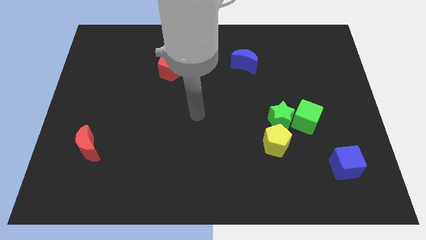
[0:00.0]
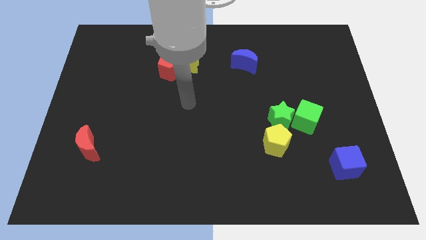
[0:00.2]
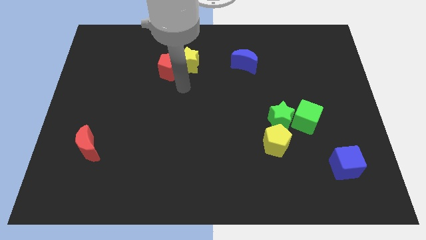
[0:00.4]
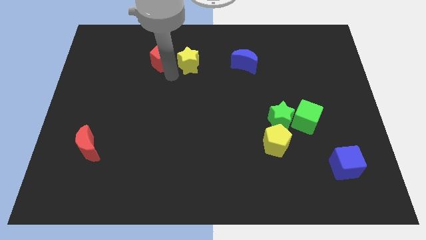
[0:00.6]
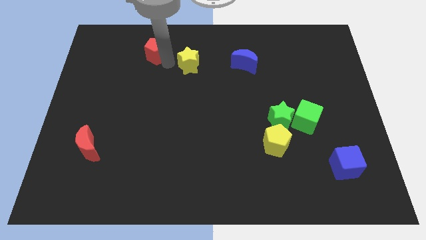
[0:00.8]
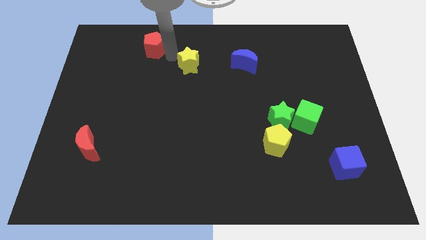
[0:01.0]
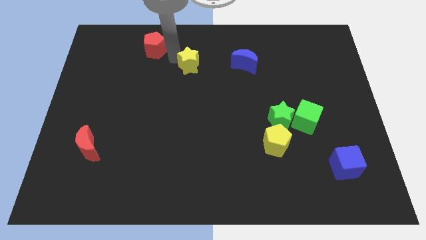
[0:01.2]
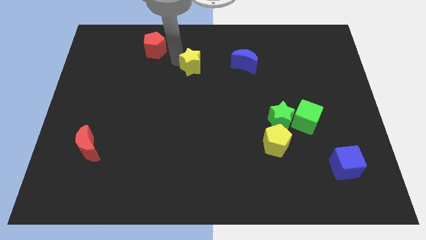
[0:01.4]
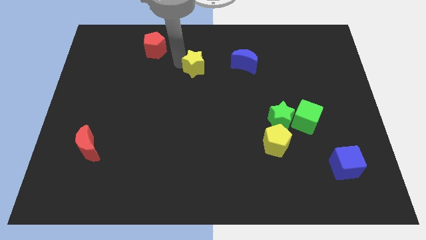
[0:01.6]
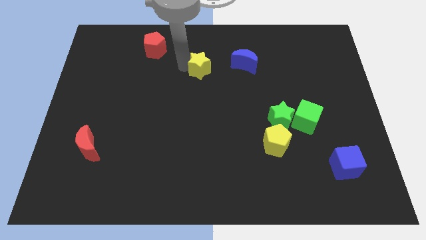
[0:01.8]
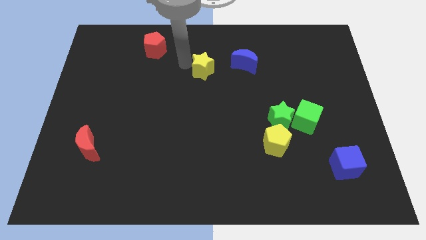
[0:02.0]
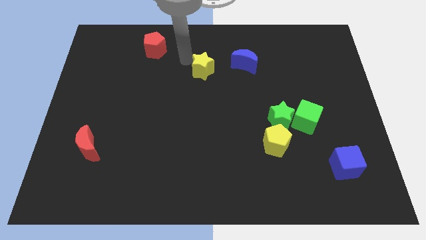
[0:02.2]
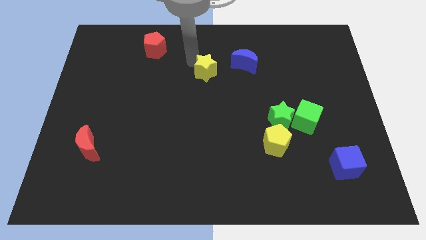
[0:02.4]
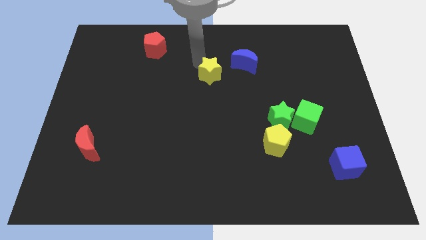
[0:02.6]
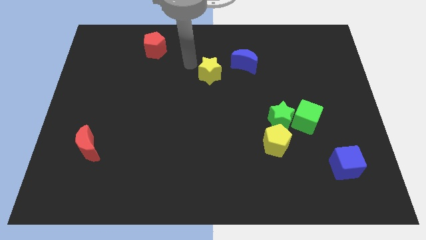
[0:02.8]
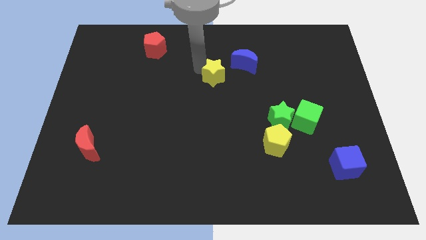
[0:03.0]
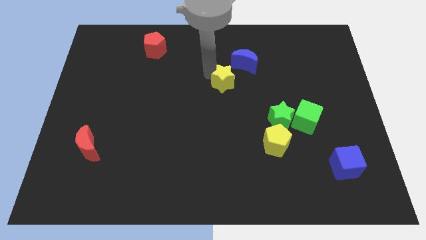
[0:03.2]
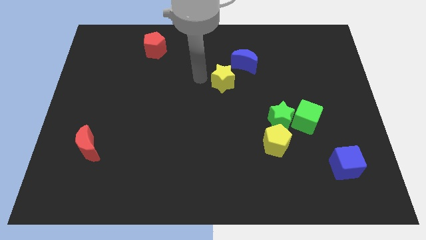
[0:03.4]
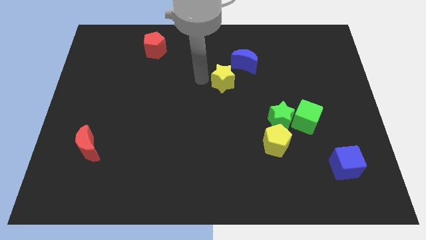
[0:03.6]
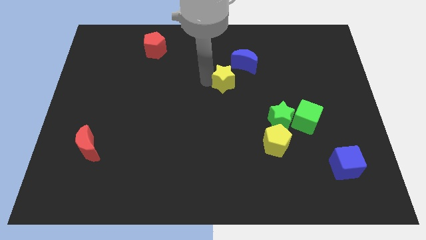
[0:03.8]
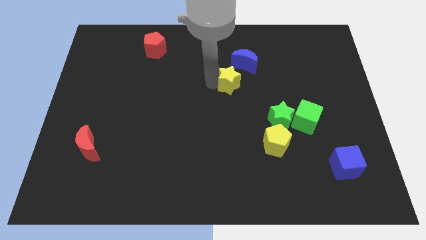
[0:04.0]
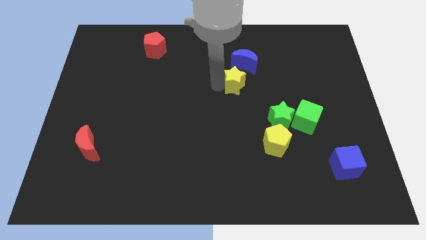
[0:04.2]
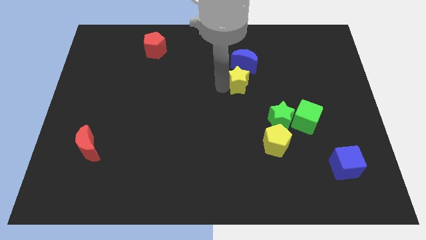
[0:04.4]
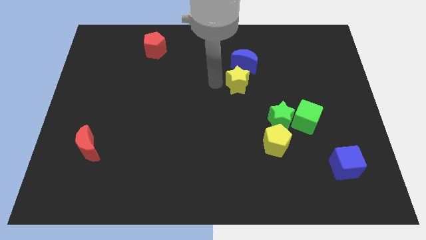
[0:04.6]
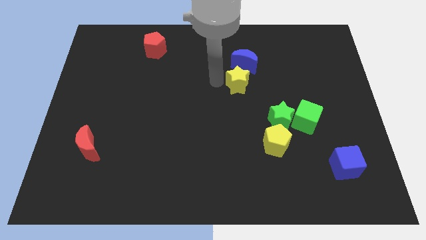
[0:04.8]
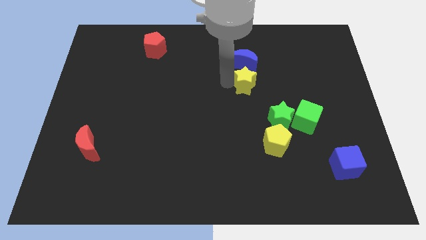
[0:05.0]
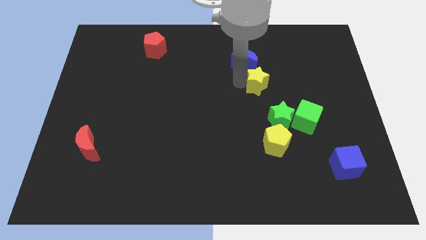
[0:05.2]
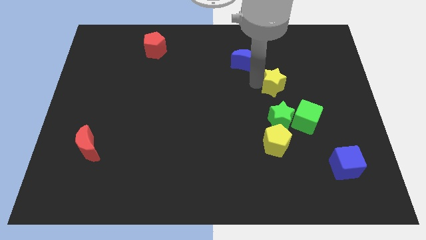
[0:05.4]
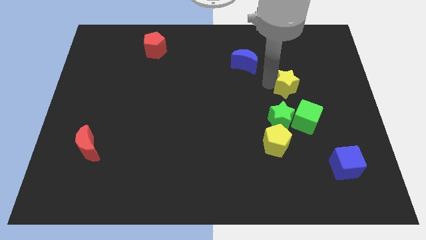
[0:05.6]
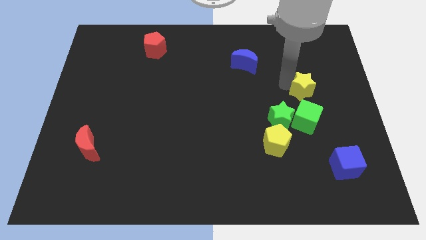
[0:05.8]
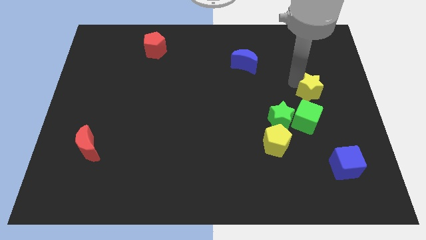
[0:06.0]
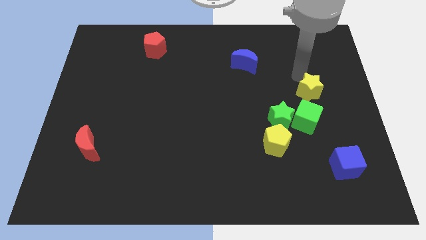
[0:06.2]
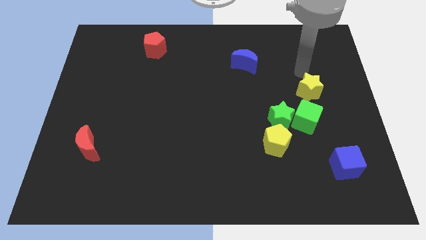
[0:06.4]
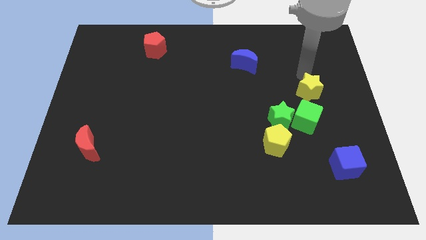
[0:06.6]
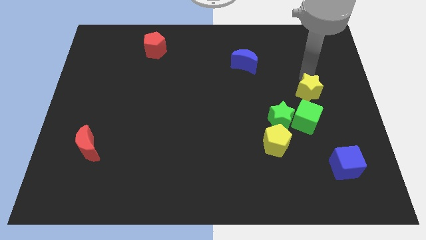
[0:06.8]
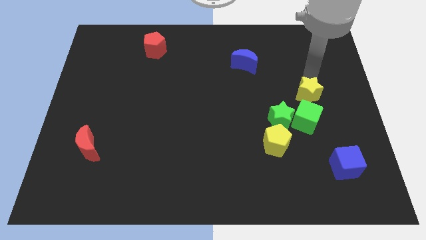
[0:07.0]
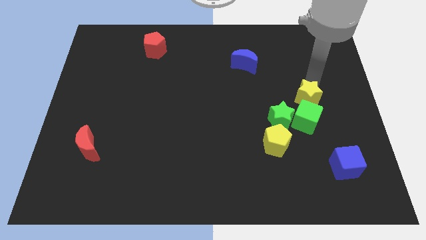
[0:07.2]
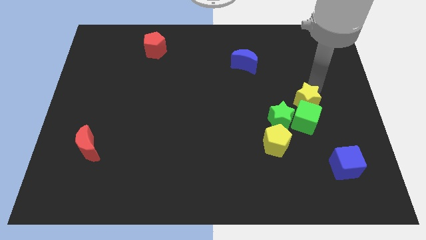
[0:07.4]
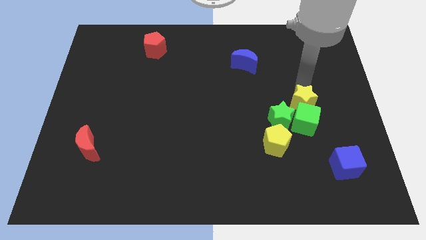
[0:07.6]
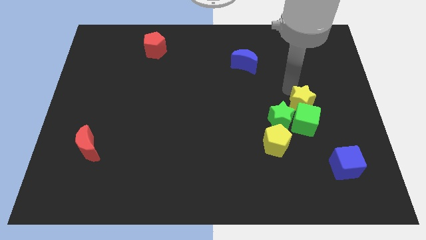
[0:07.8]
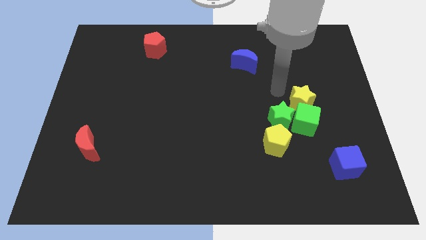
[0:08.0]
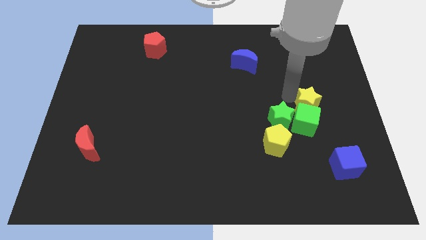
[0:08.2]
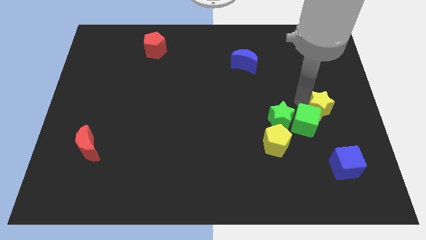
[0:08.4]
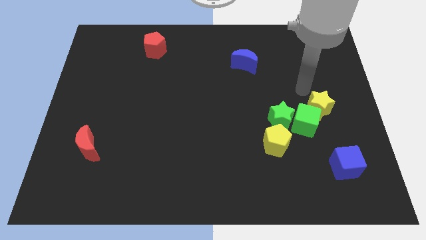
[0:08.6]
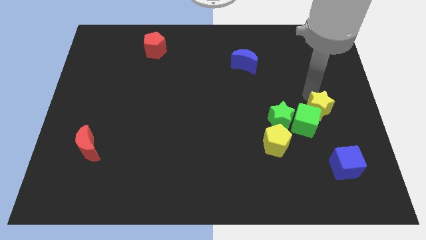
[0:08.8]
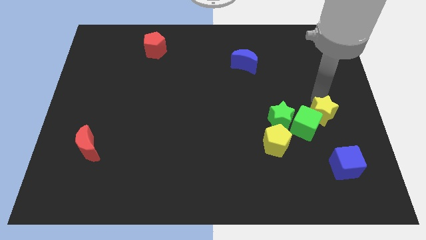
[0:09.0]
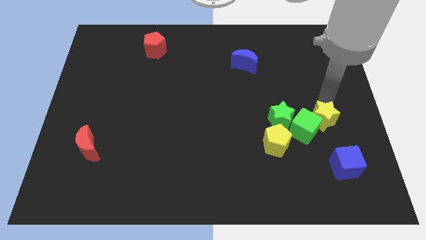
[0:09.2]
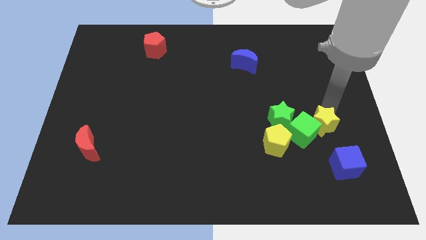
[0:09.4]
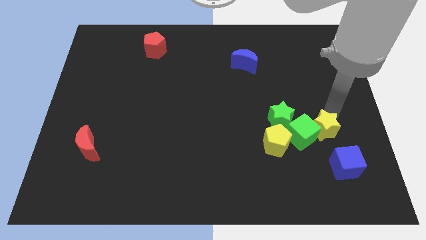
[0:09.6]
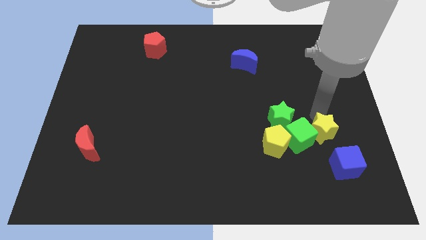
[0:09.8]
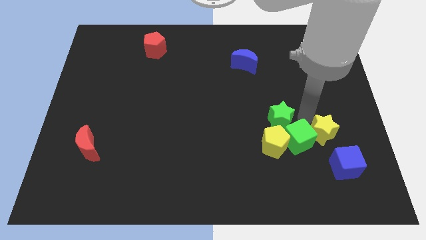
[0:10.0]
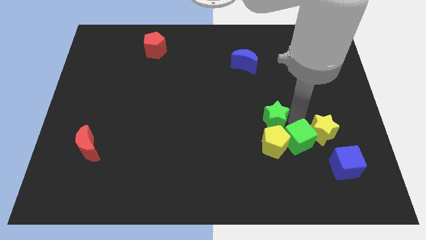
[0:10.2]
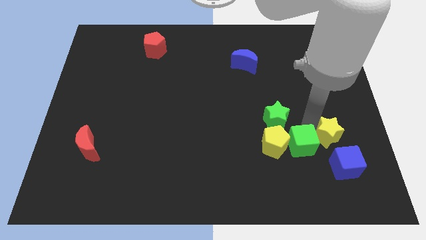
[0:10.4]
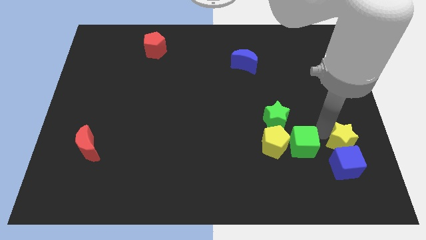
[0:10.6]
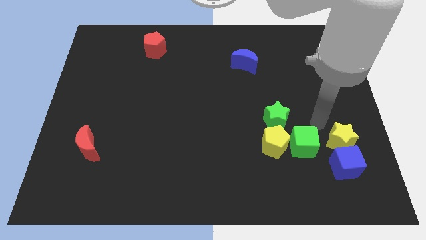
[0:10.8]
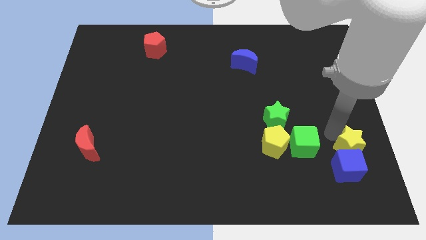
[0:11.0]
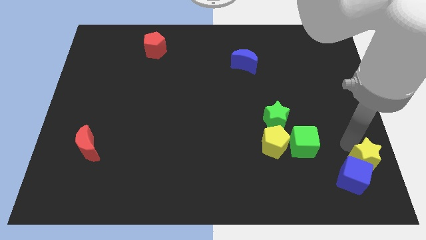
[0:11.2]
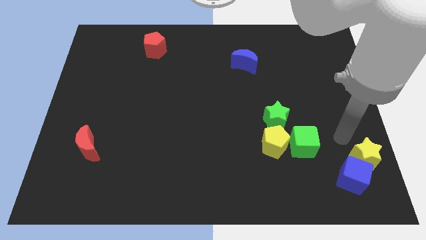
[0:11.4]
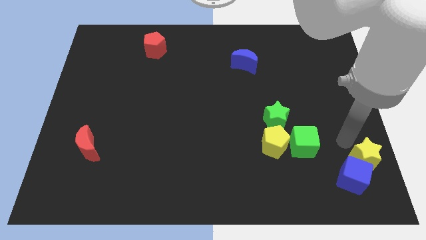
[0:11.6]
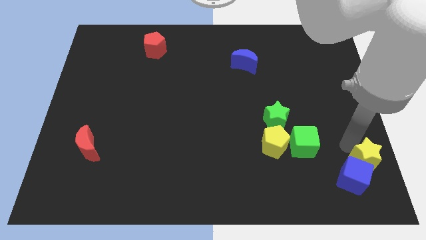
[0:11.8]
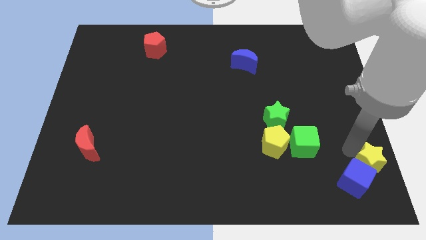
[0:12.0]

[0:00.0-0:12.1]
put the yellow star to the bottom right
